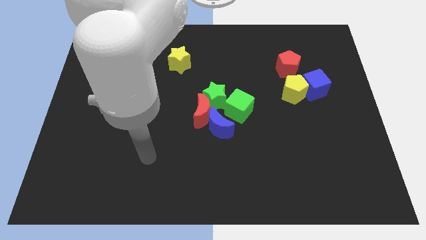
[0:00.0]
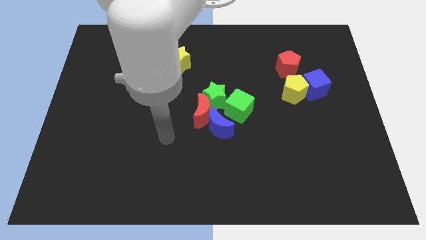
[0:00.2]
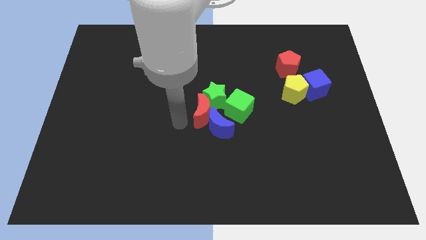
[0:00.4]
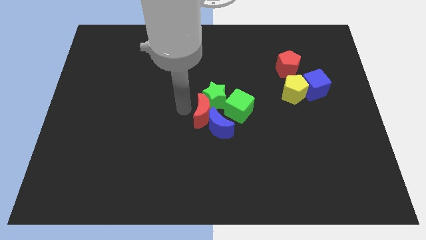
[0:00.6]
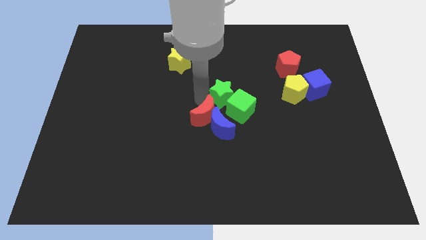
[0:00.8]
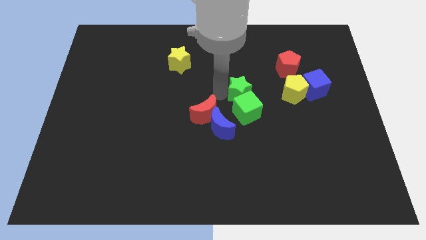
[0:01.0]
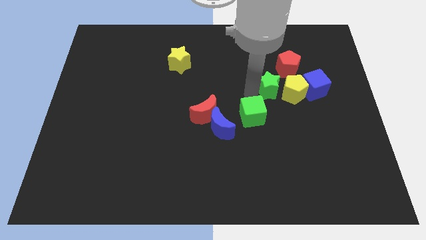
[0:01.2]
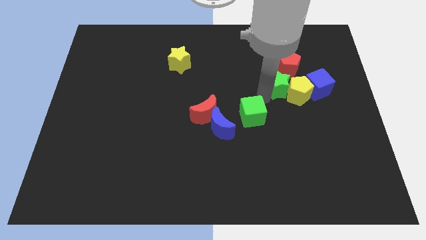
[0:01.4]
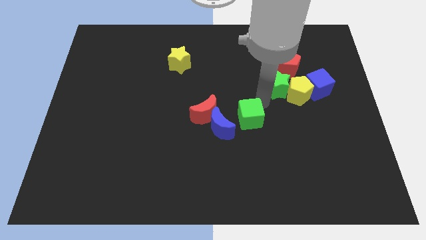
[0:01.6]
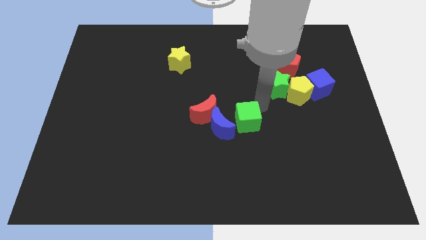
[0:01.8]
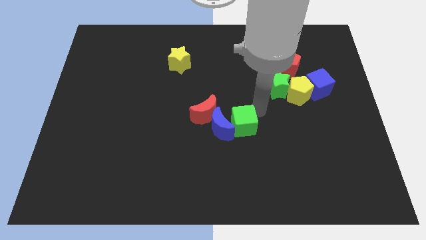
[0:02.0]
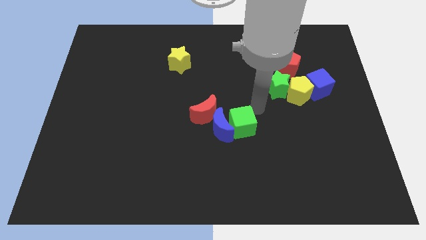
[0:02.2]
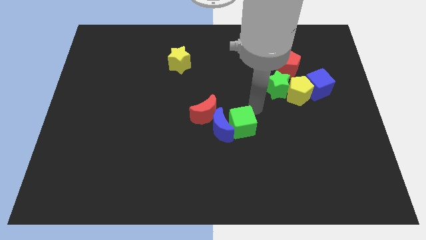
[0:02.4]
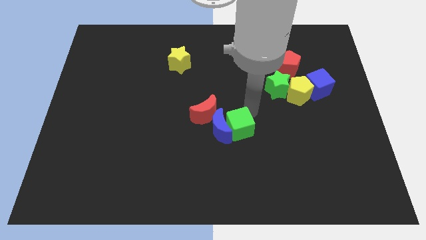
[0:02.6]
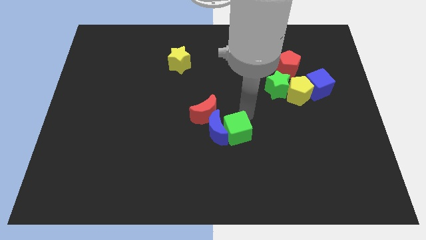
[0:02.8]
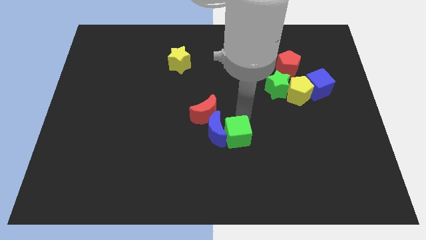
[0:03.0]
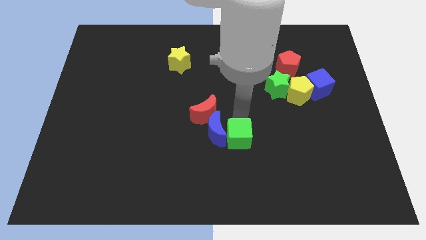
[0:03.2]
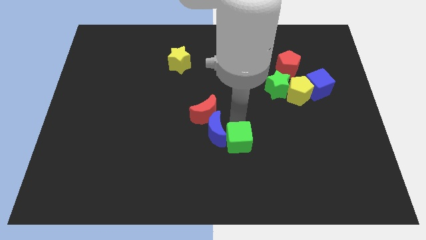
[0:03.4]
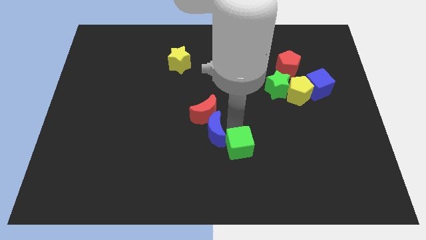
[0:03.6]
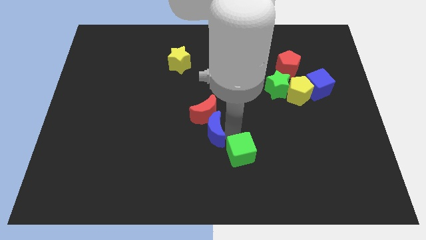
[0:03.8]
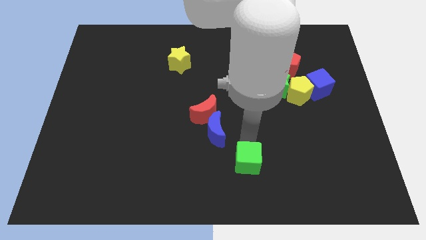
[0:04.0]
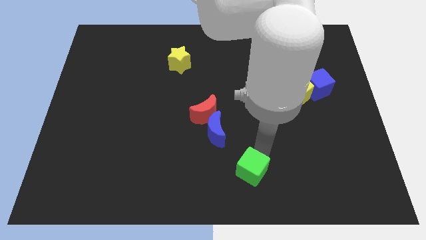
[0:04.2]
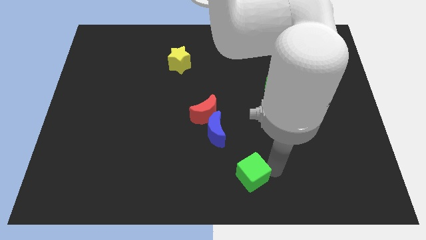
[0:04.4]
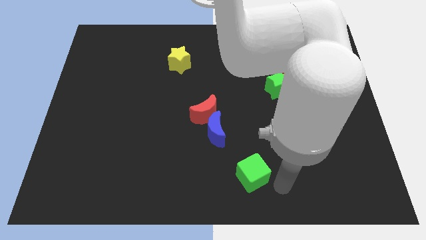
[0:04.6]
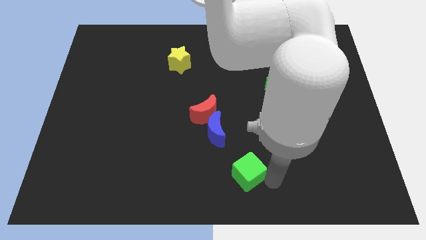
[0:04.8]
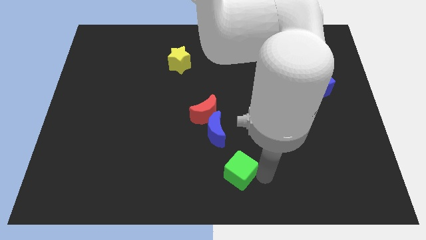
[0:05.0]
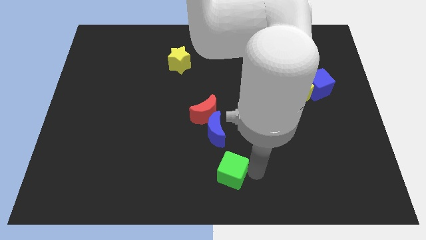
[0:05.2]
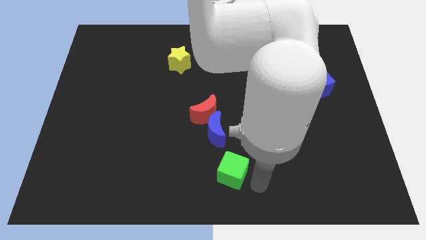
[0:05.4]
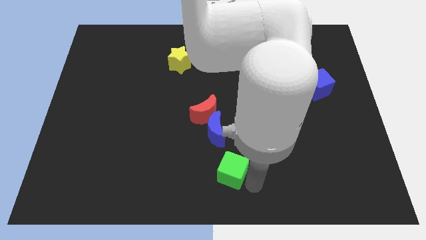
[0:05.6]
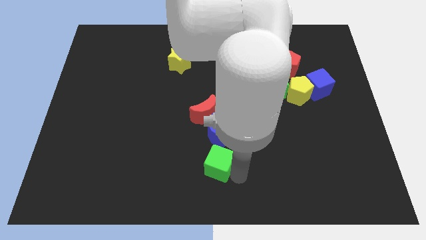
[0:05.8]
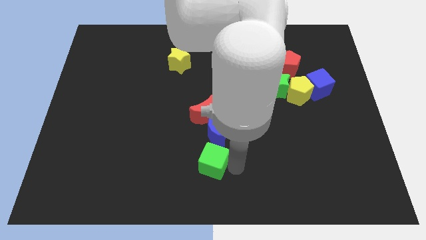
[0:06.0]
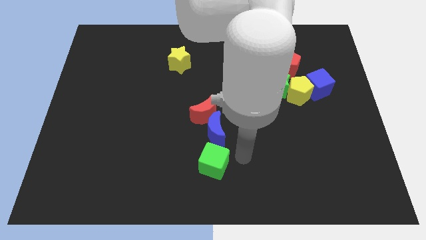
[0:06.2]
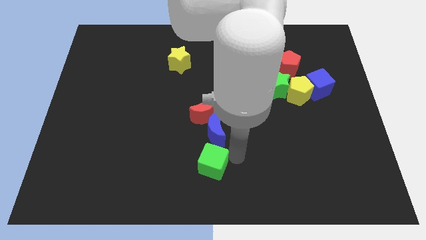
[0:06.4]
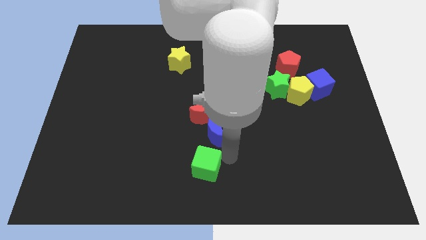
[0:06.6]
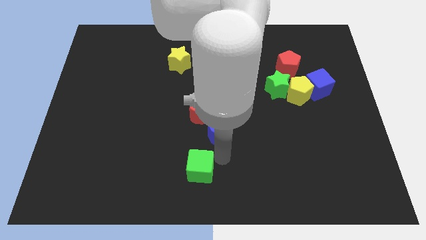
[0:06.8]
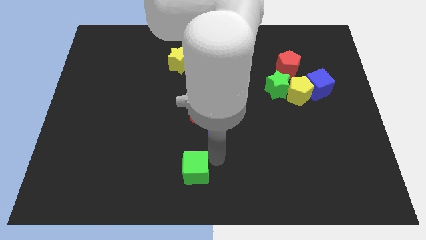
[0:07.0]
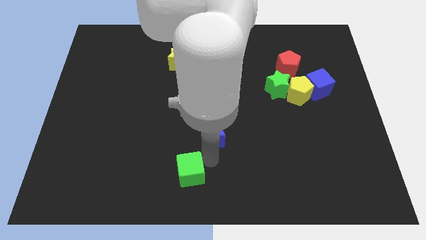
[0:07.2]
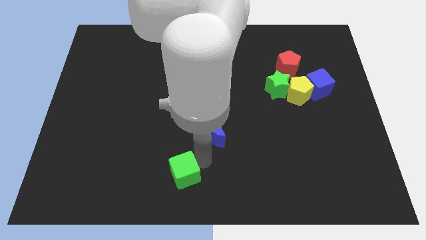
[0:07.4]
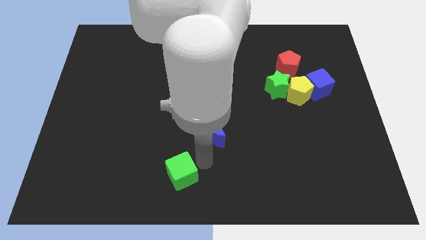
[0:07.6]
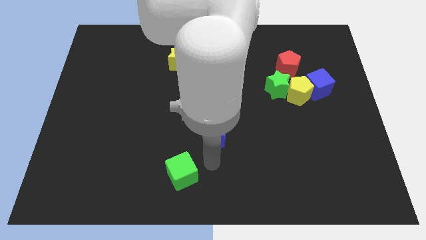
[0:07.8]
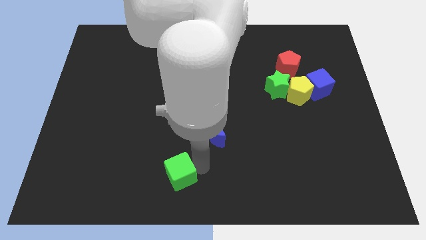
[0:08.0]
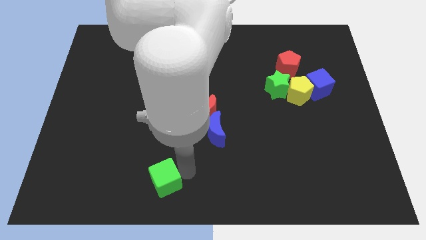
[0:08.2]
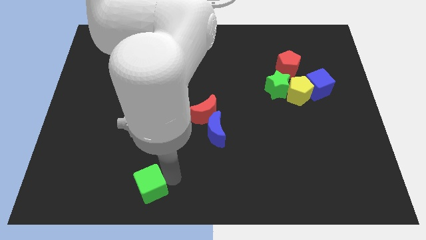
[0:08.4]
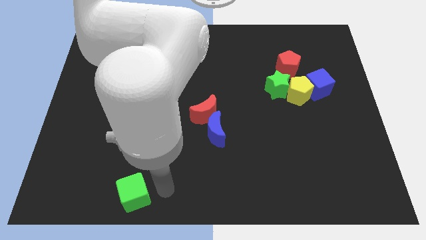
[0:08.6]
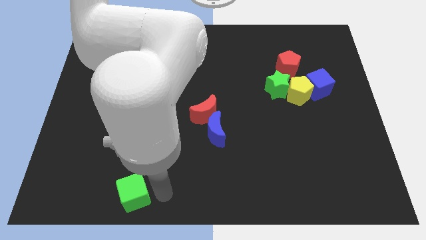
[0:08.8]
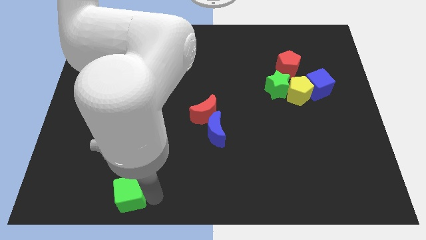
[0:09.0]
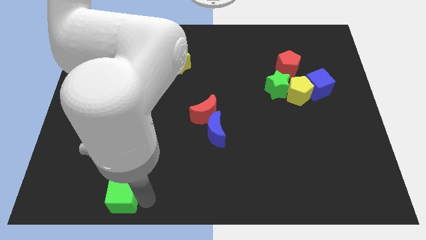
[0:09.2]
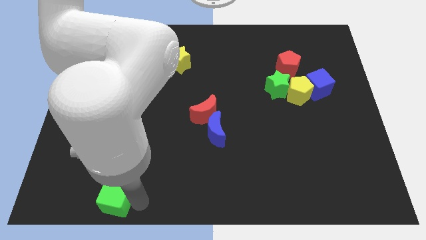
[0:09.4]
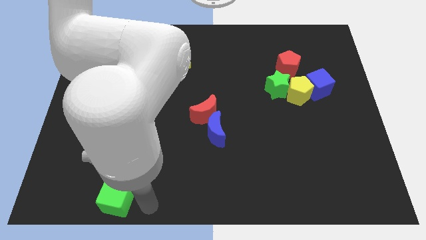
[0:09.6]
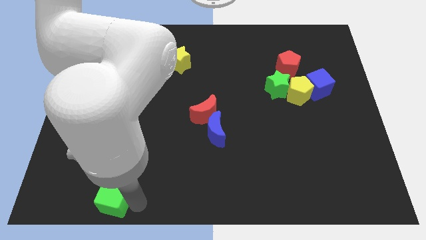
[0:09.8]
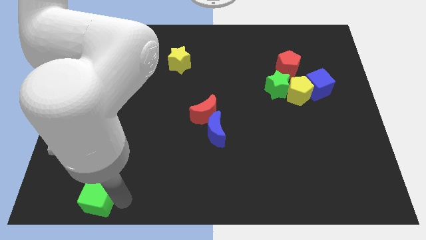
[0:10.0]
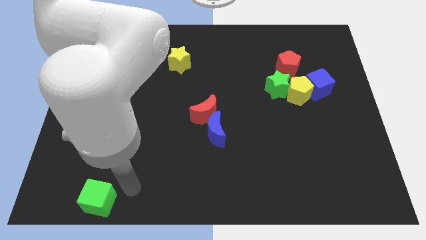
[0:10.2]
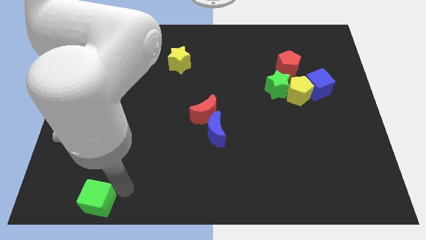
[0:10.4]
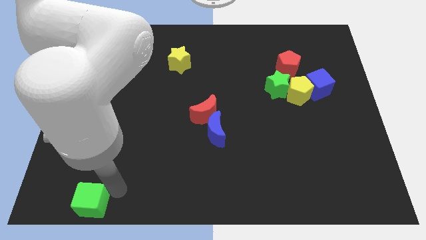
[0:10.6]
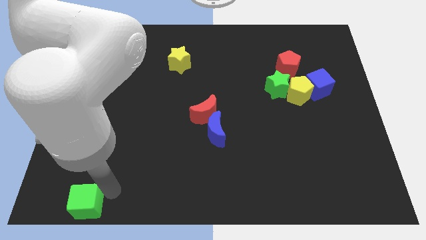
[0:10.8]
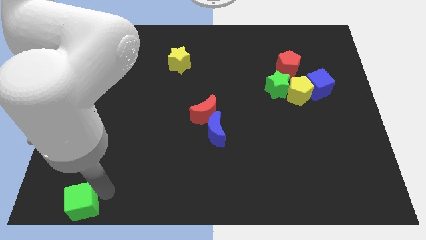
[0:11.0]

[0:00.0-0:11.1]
push the green cube to the bottom left of the board

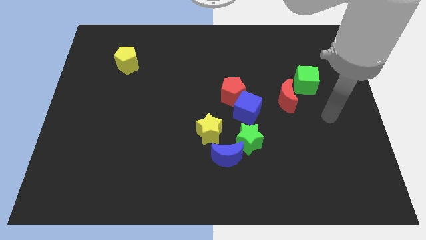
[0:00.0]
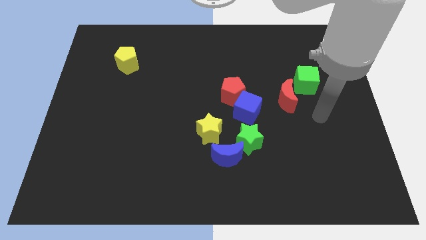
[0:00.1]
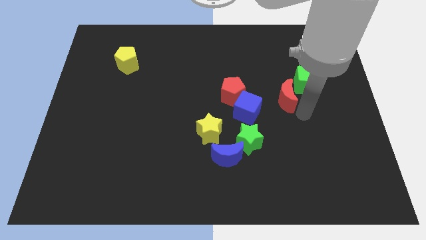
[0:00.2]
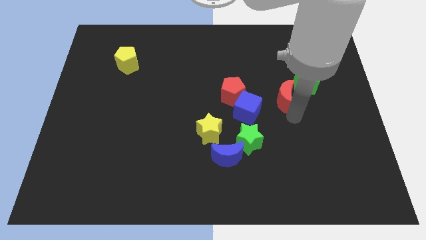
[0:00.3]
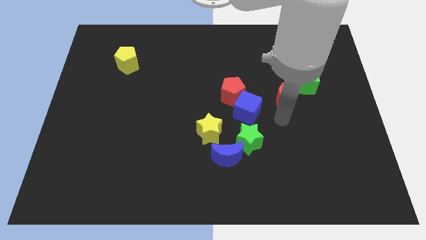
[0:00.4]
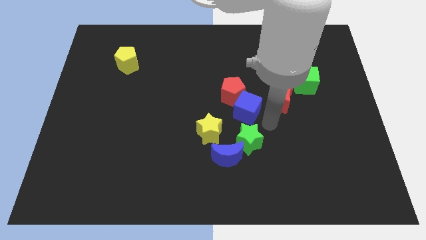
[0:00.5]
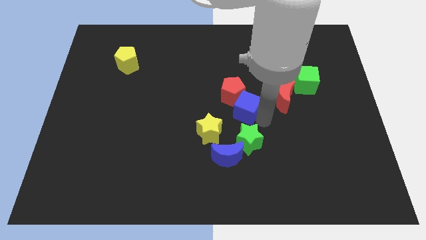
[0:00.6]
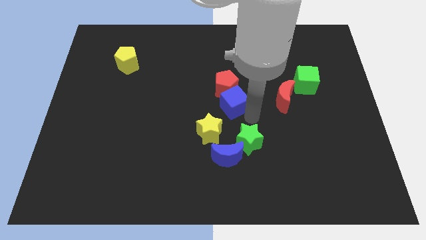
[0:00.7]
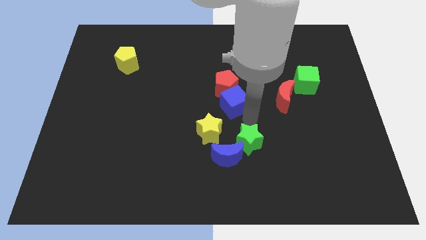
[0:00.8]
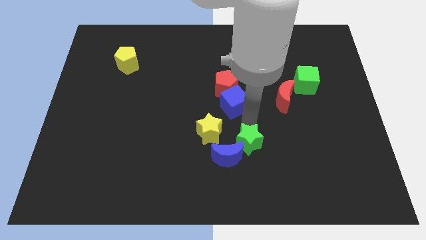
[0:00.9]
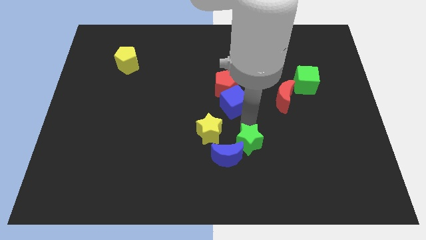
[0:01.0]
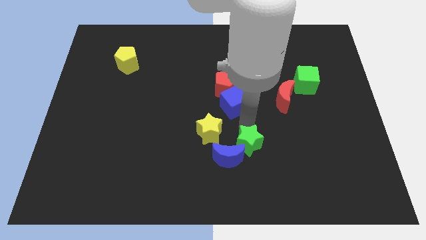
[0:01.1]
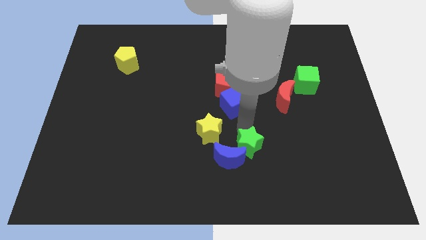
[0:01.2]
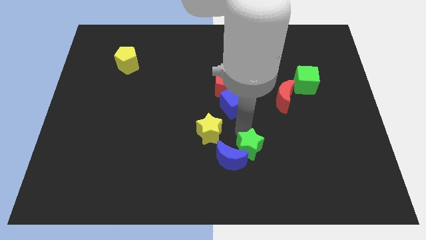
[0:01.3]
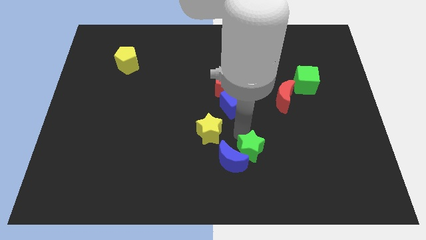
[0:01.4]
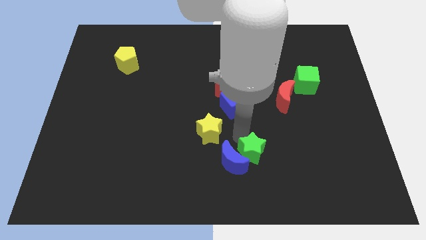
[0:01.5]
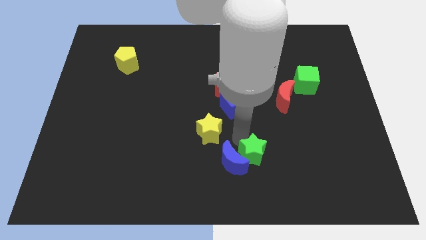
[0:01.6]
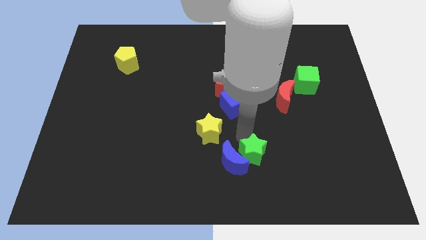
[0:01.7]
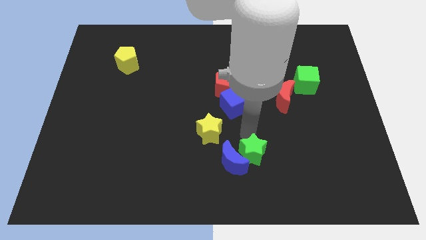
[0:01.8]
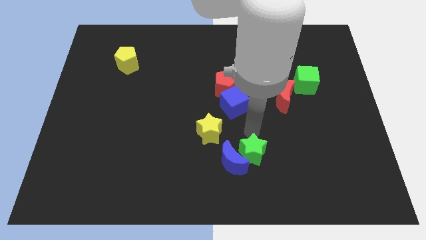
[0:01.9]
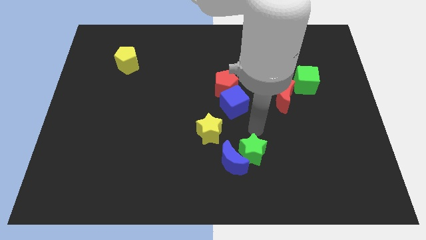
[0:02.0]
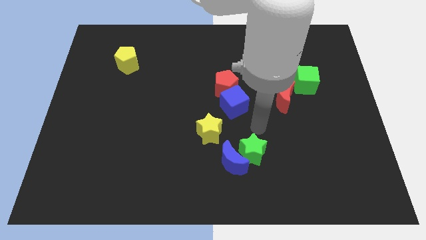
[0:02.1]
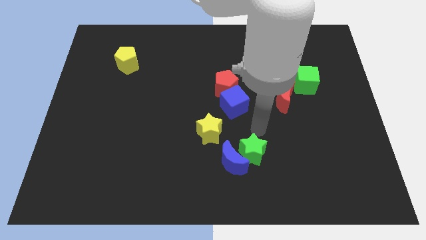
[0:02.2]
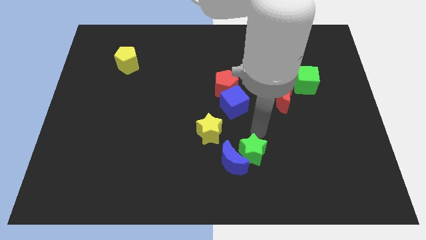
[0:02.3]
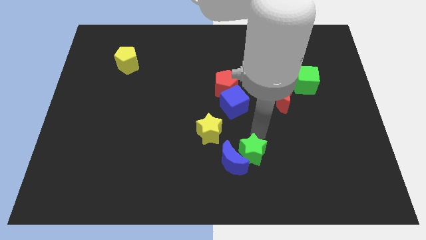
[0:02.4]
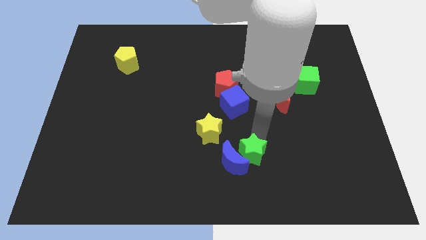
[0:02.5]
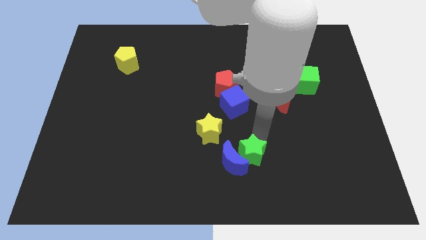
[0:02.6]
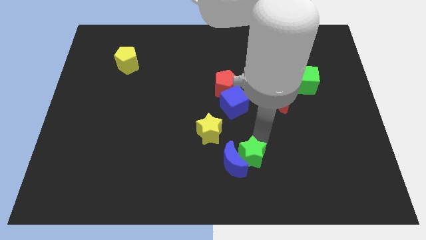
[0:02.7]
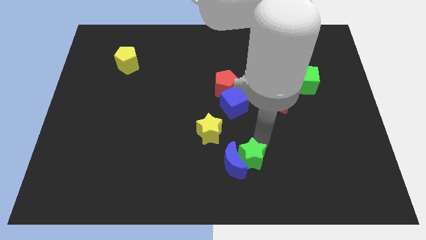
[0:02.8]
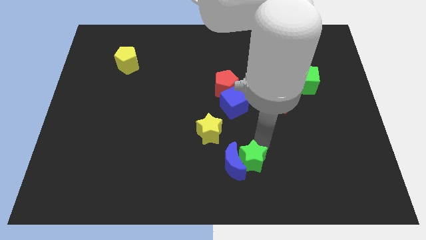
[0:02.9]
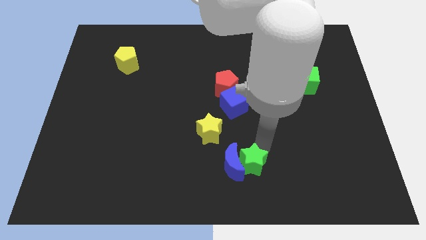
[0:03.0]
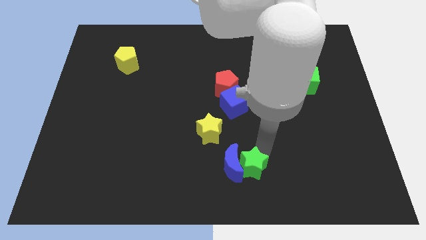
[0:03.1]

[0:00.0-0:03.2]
put the green star to the bottom
